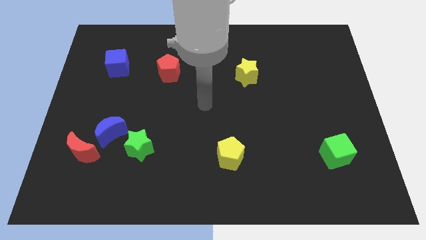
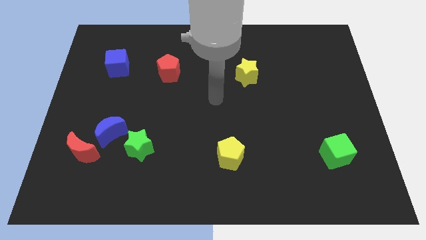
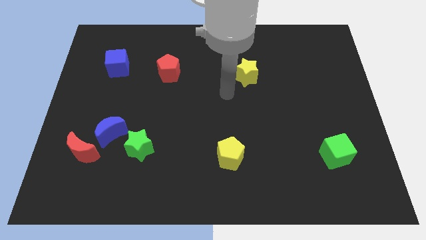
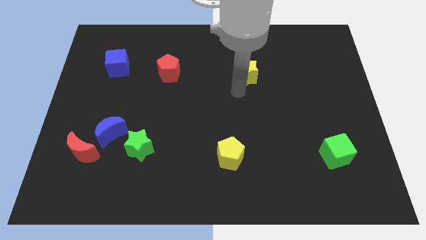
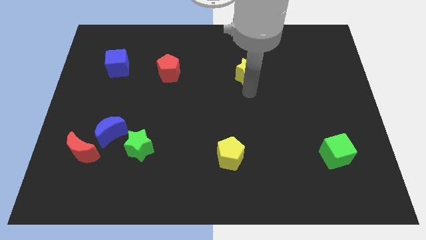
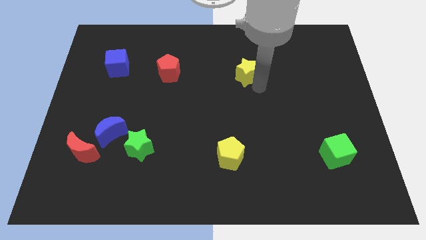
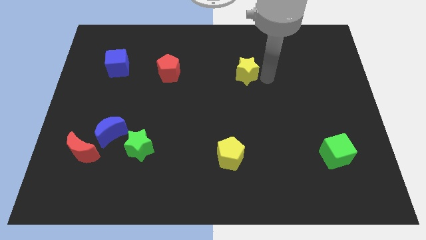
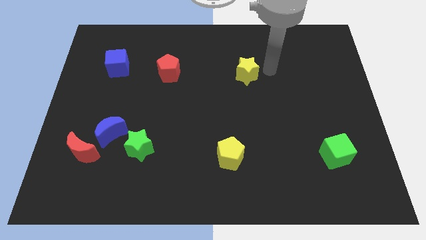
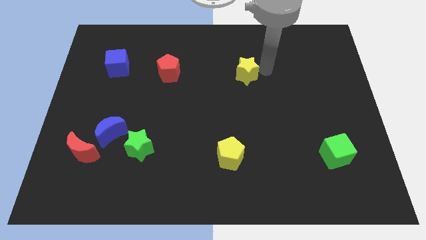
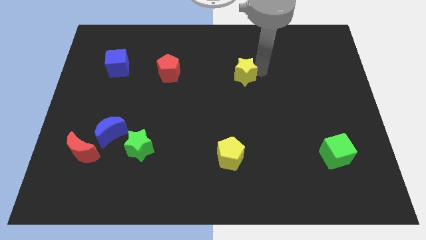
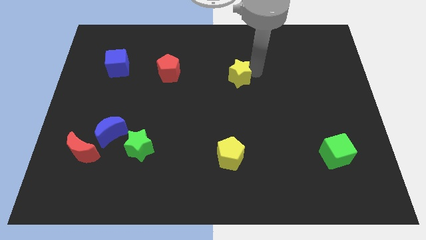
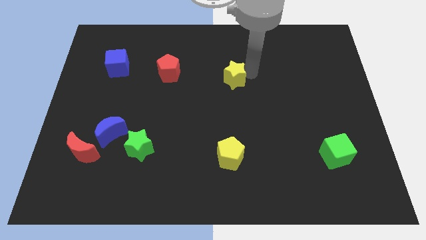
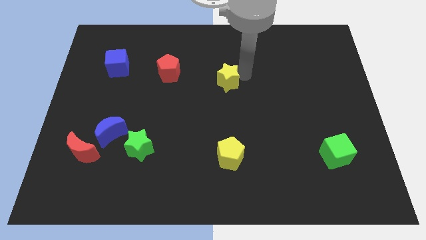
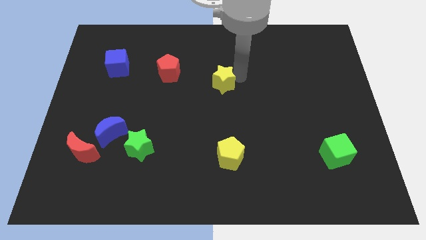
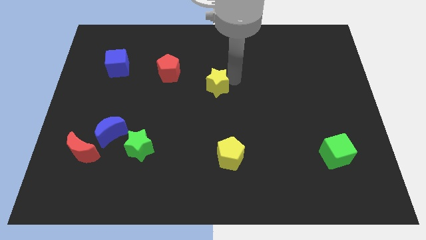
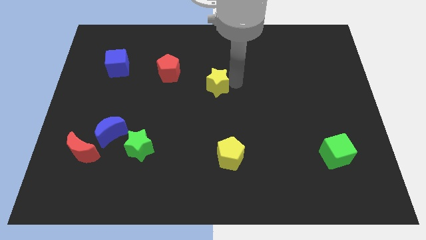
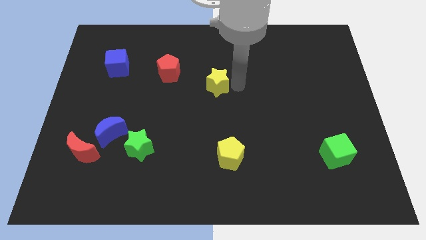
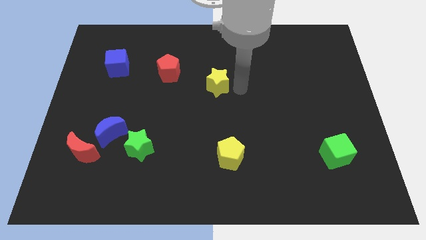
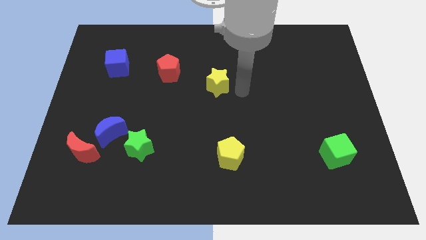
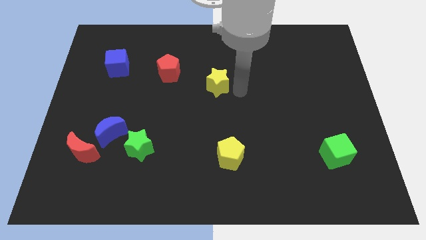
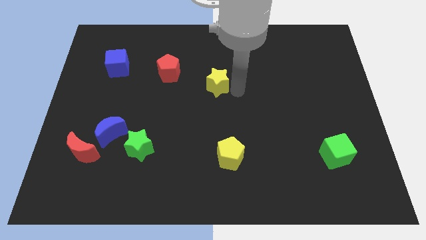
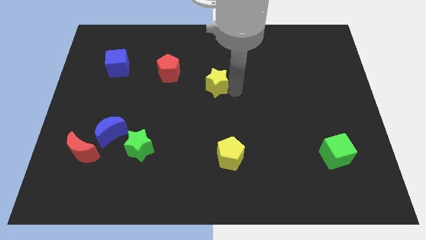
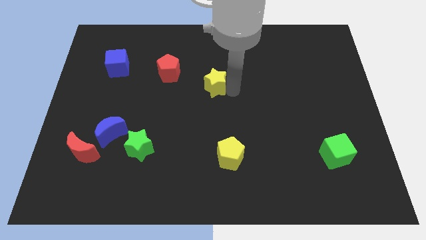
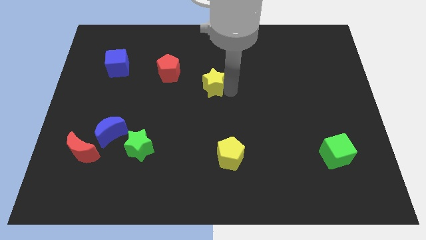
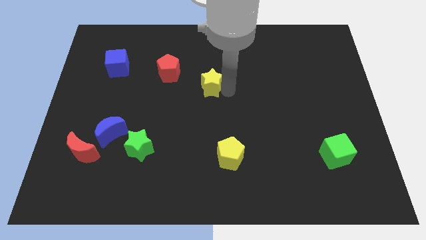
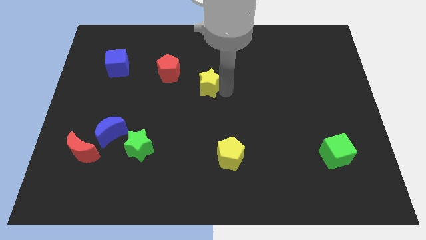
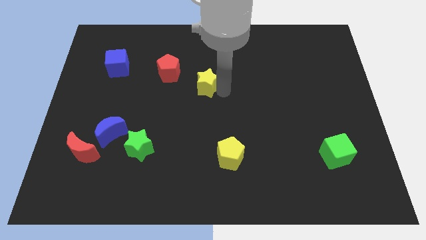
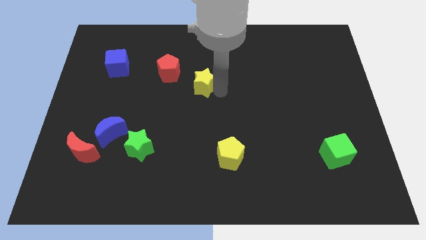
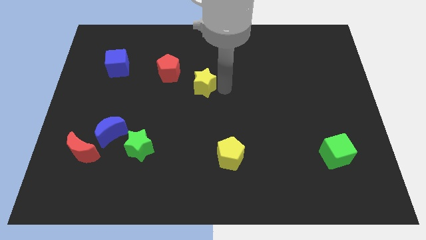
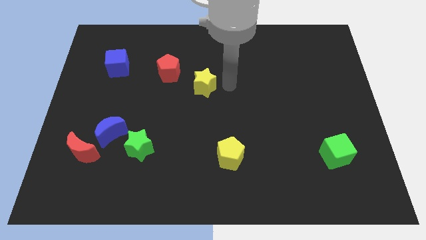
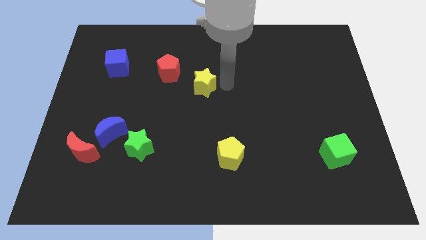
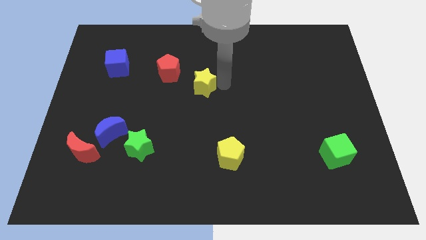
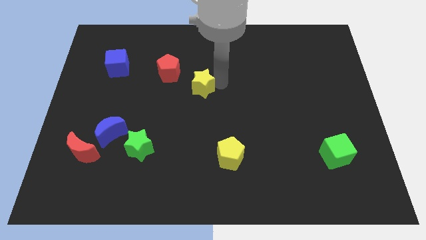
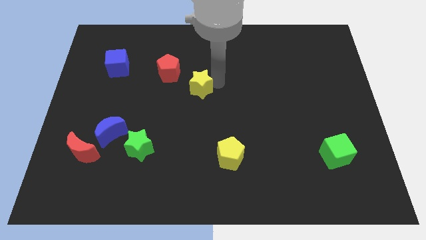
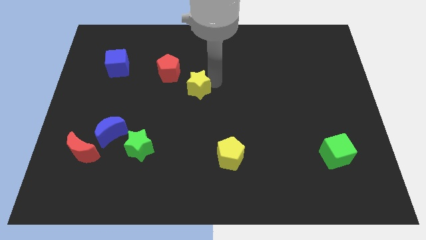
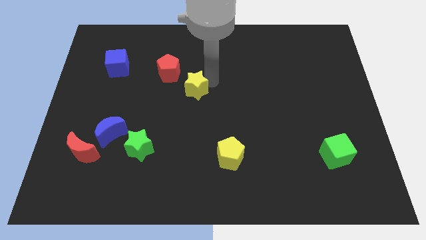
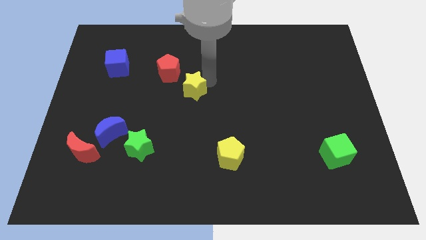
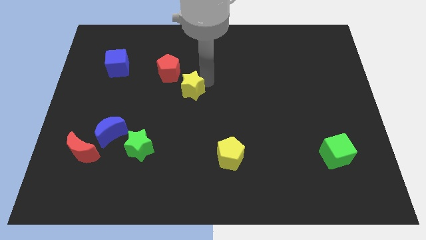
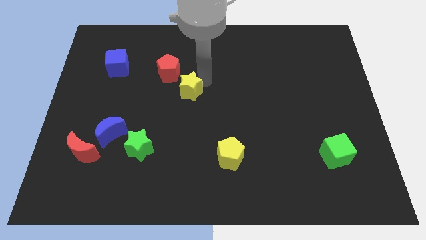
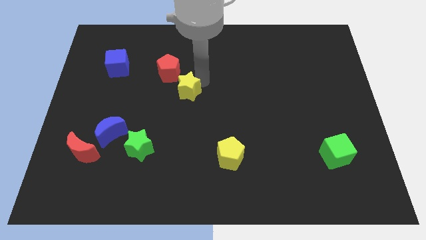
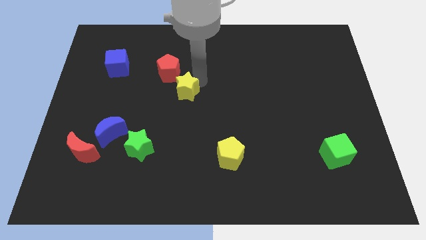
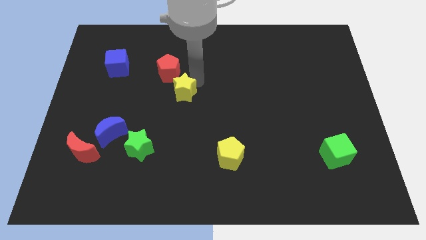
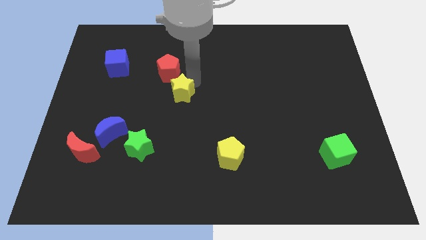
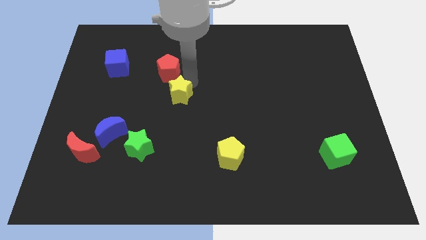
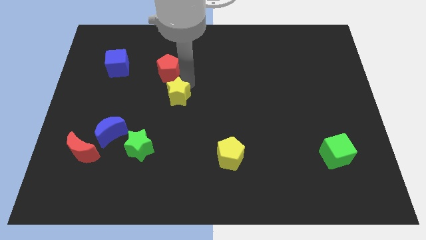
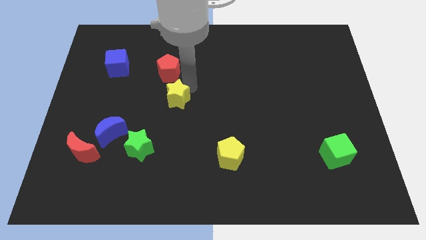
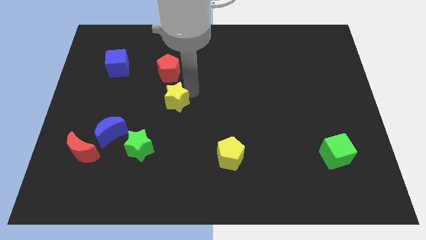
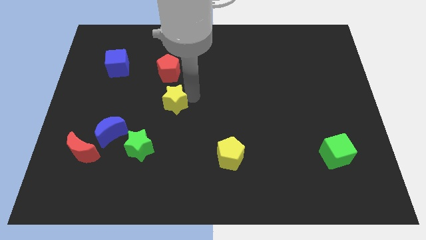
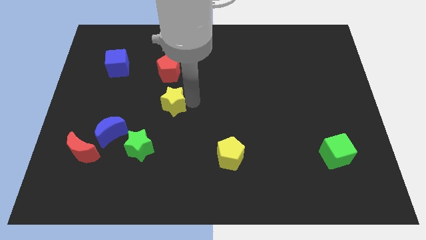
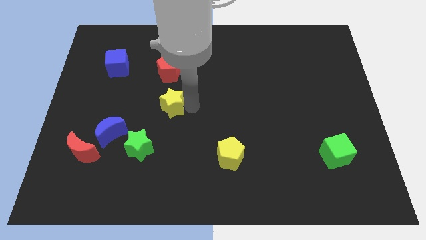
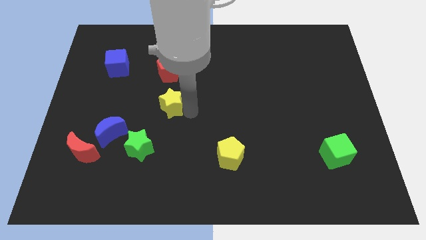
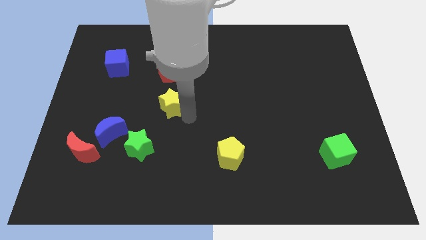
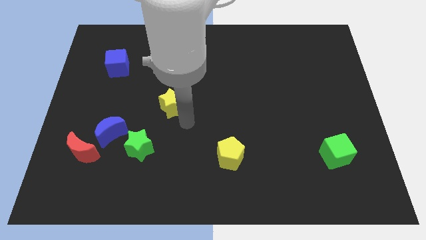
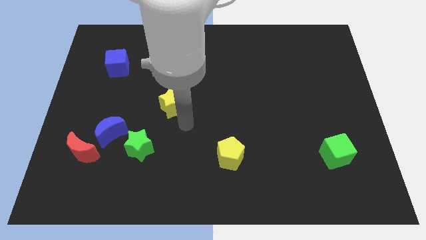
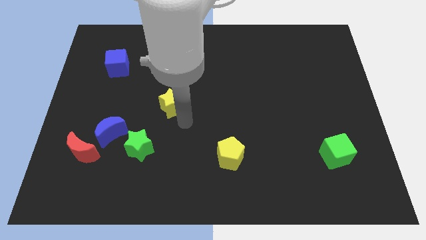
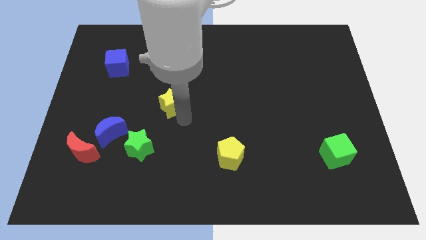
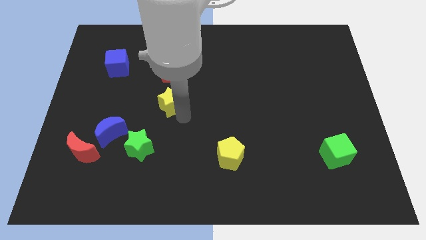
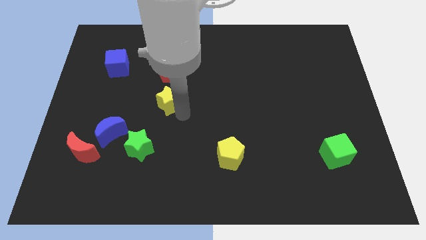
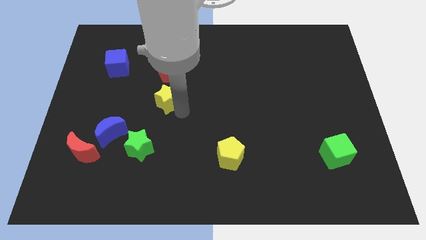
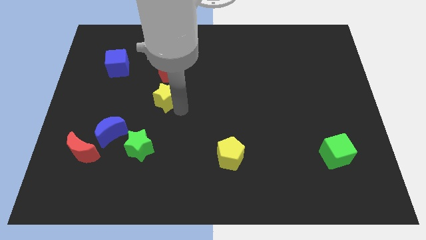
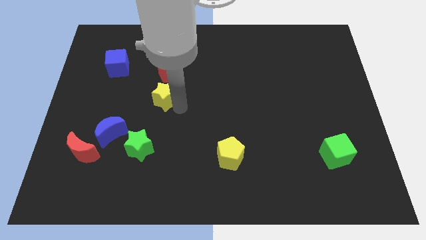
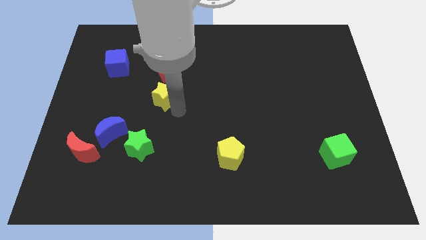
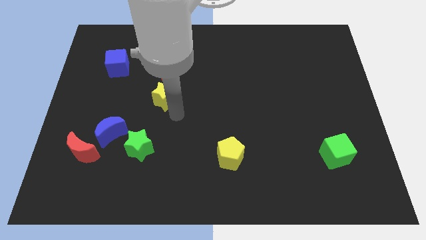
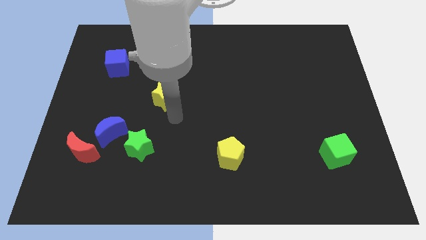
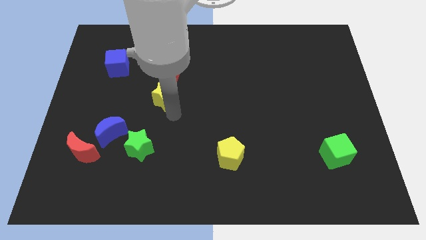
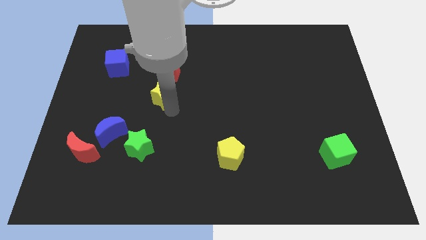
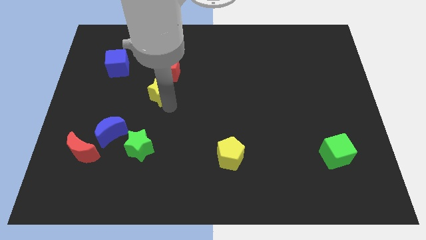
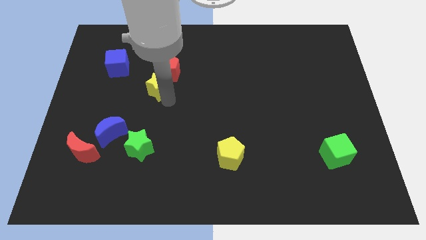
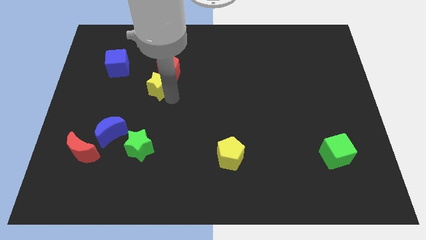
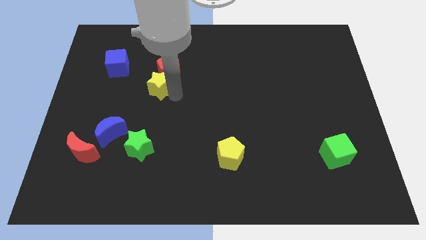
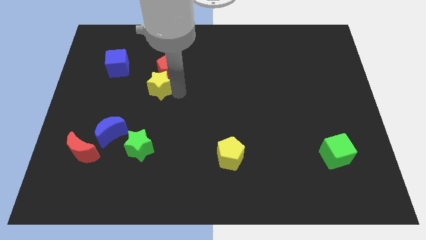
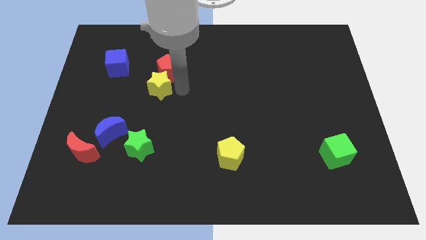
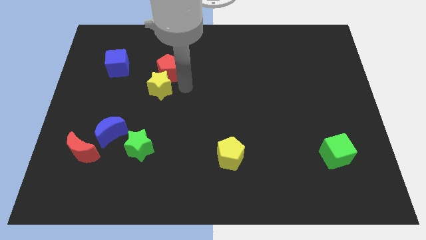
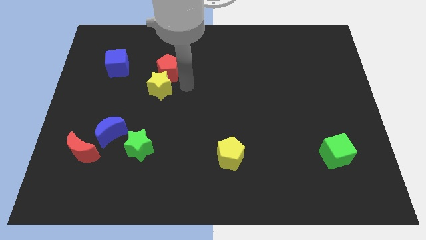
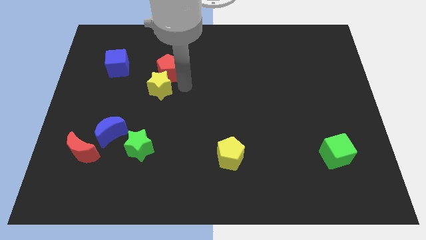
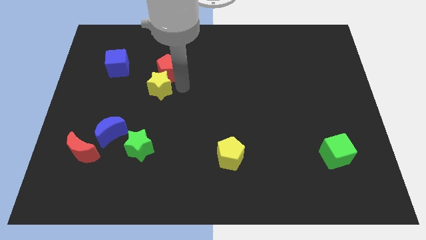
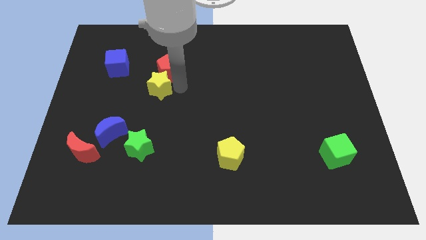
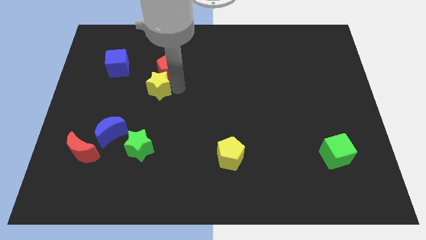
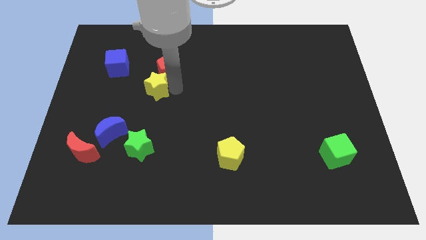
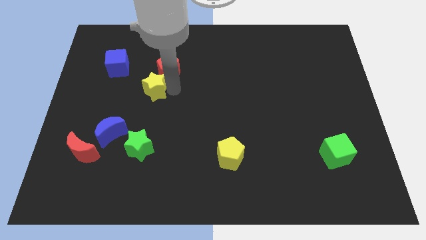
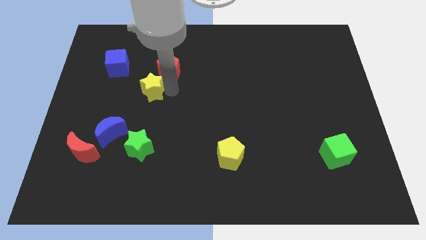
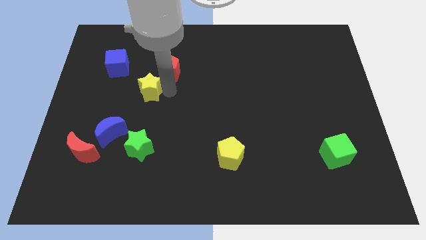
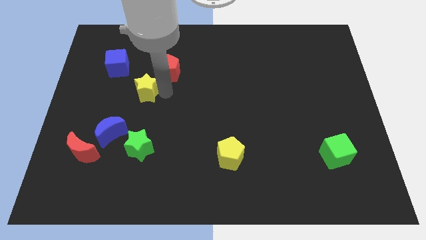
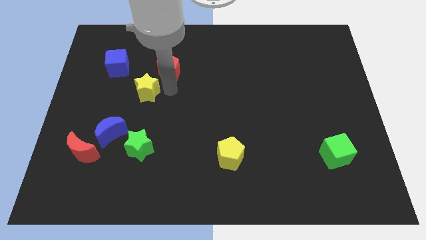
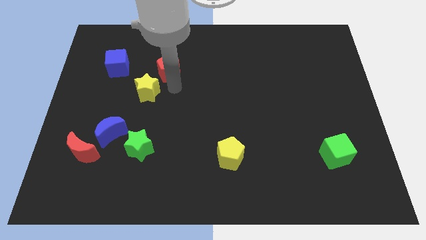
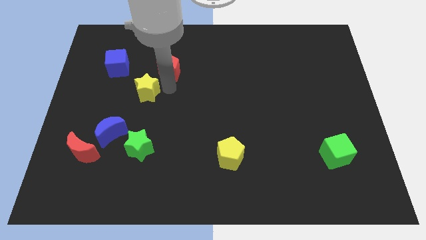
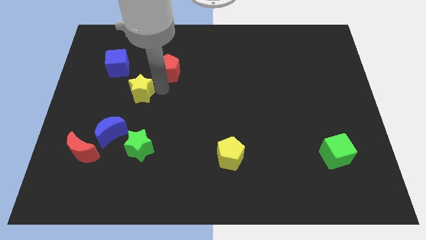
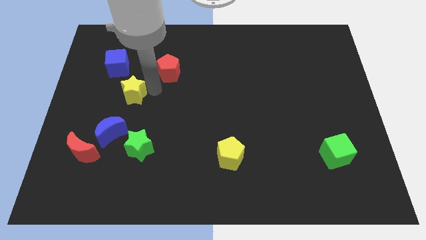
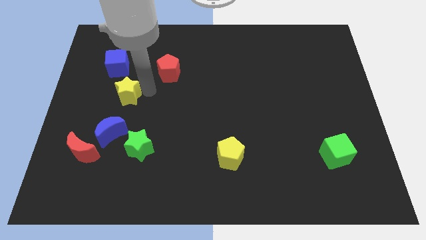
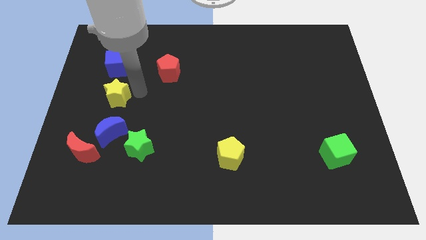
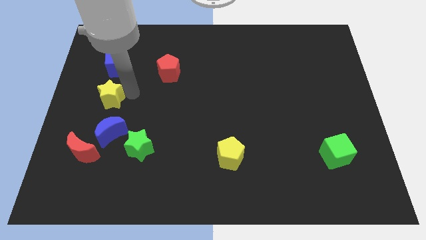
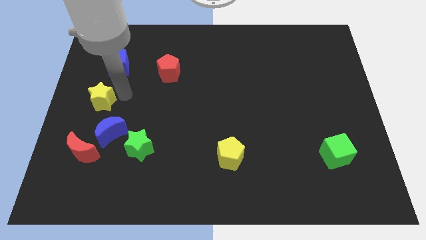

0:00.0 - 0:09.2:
push the yellow star to the left side
